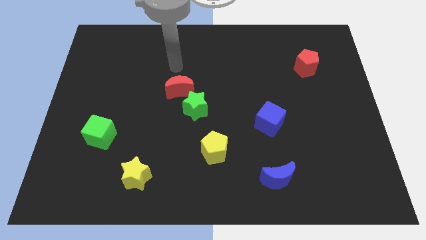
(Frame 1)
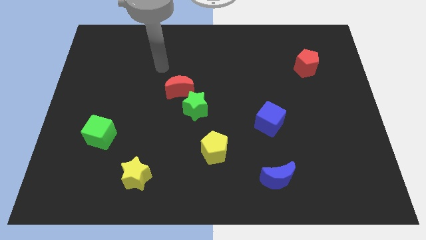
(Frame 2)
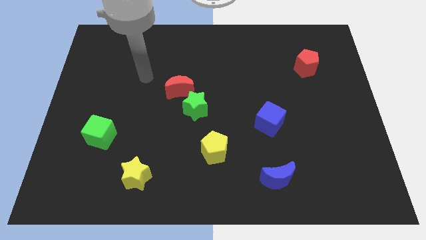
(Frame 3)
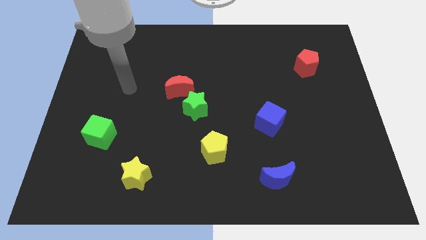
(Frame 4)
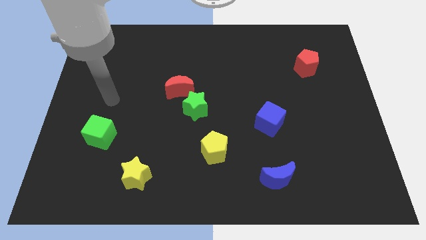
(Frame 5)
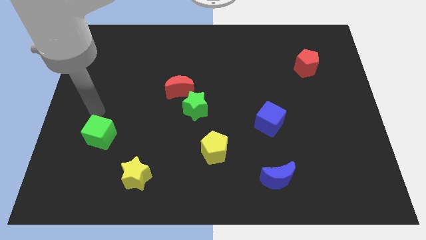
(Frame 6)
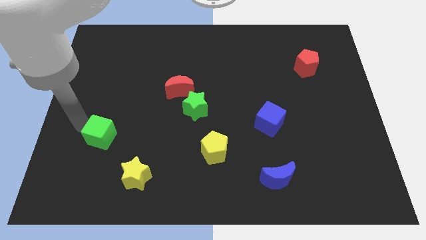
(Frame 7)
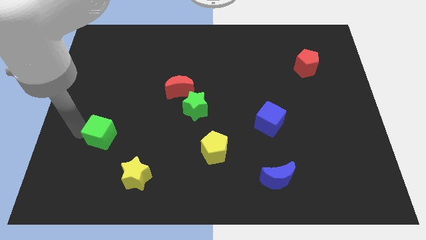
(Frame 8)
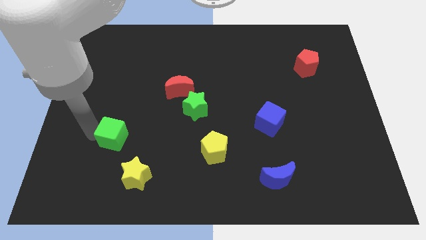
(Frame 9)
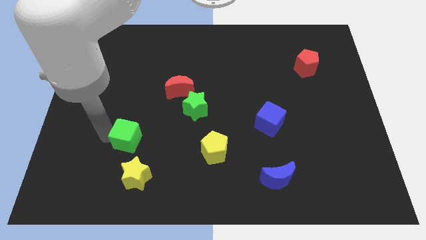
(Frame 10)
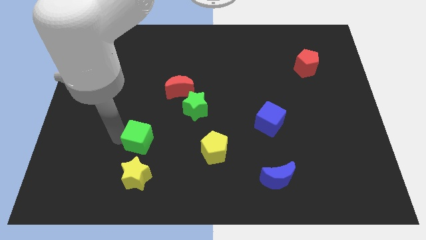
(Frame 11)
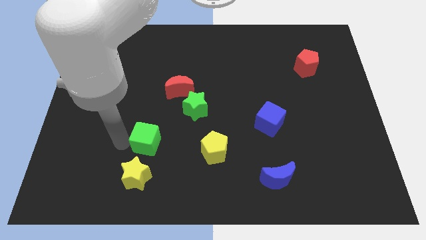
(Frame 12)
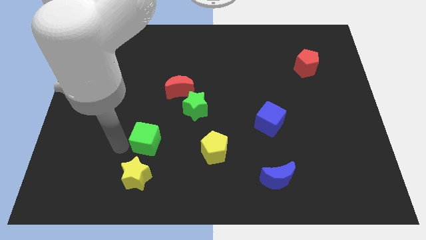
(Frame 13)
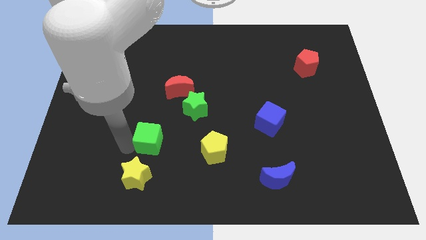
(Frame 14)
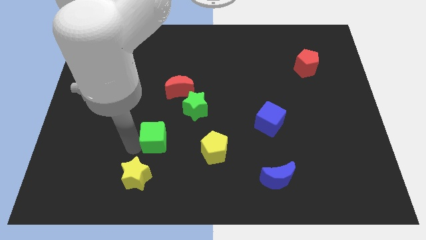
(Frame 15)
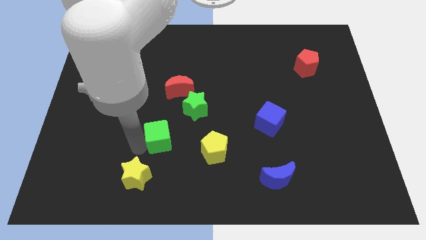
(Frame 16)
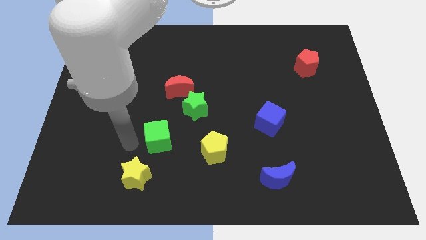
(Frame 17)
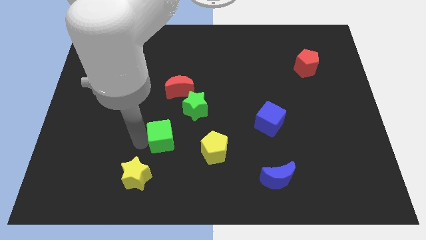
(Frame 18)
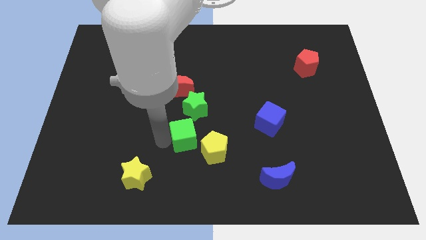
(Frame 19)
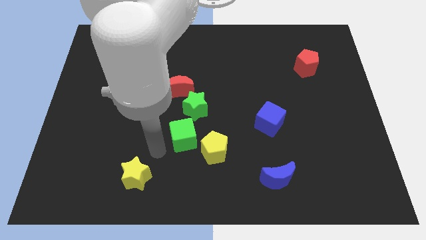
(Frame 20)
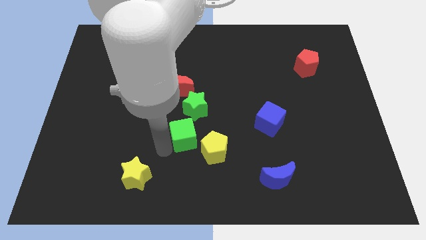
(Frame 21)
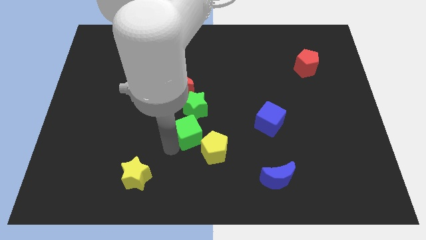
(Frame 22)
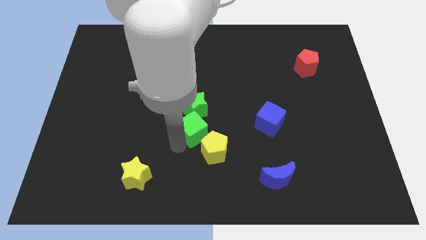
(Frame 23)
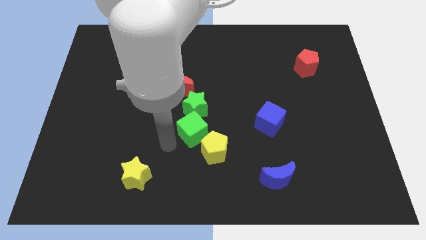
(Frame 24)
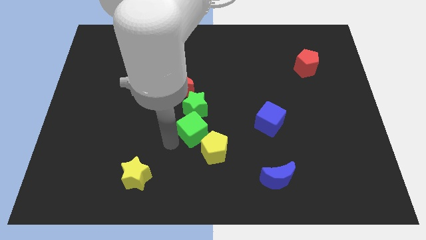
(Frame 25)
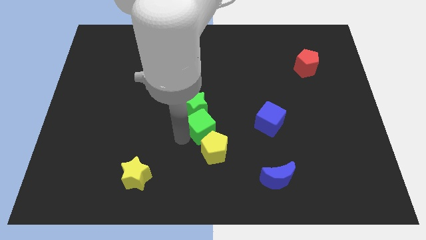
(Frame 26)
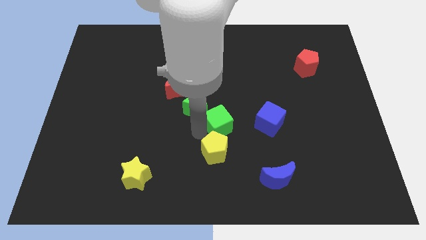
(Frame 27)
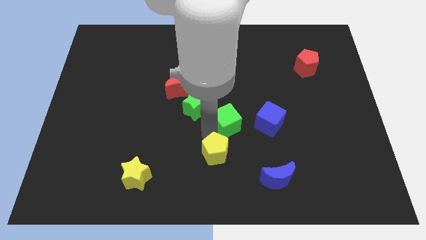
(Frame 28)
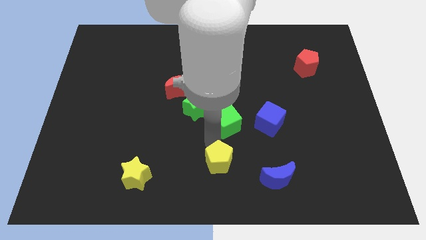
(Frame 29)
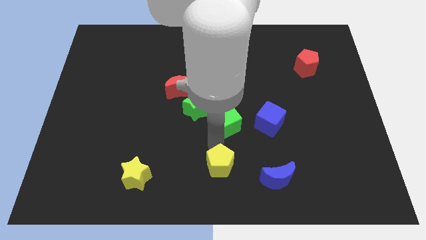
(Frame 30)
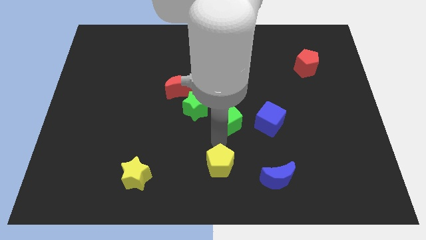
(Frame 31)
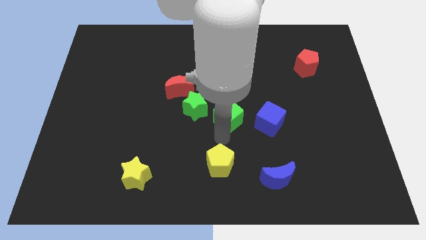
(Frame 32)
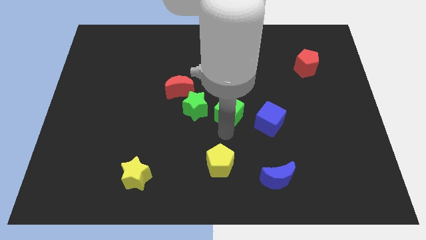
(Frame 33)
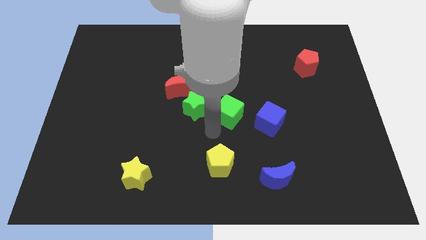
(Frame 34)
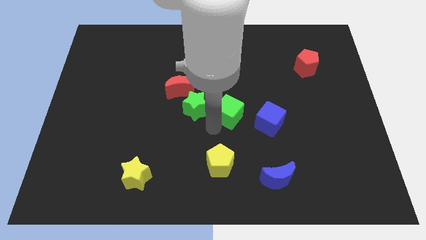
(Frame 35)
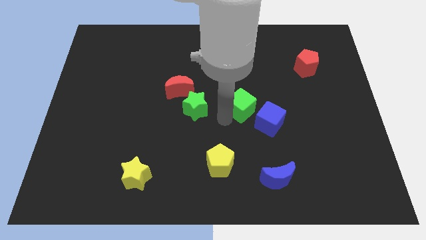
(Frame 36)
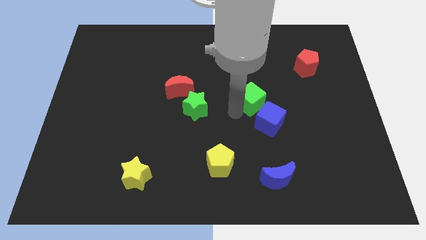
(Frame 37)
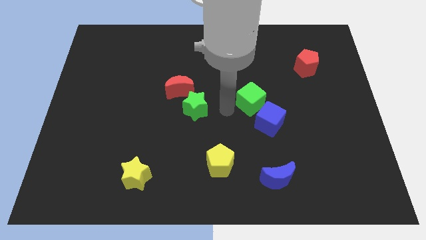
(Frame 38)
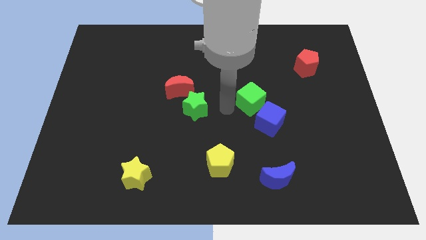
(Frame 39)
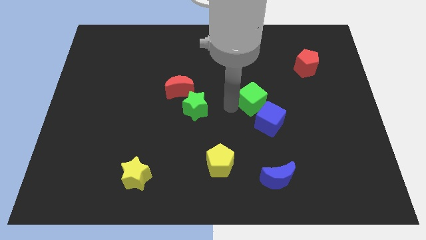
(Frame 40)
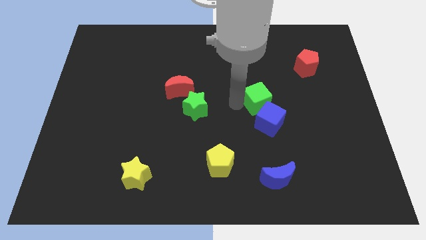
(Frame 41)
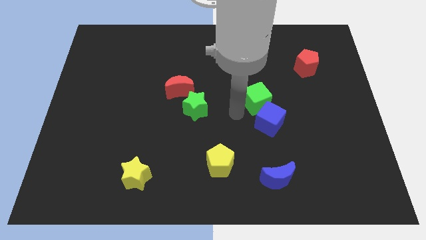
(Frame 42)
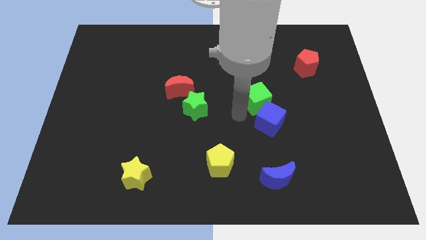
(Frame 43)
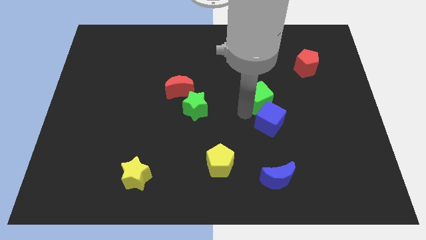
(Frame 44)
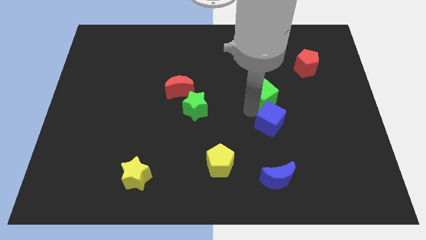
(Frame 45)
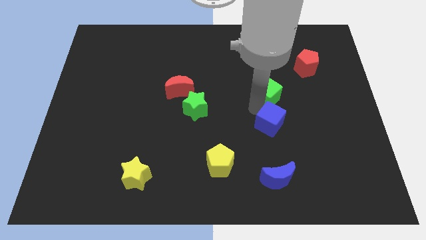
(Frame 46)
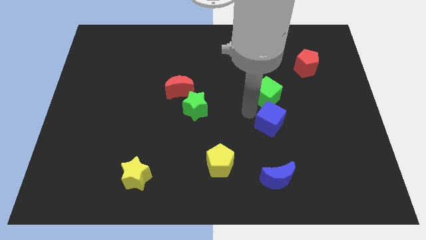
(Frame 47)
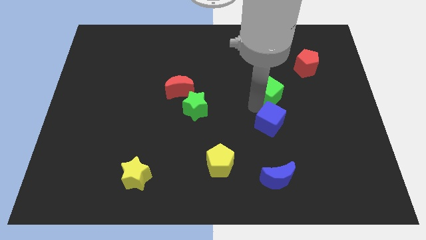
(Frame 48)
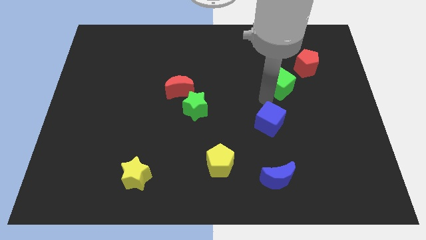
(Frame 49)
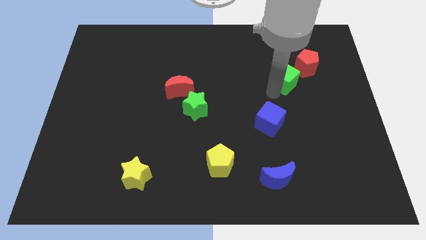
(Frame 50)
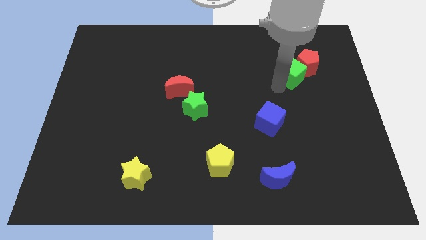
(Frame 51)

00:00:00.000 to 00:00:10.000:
slide the green cube towards the red pentagon

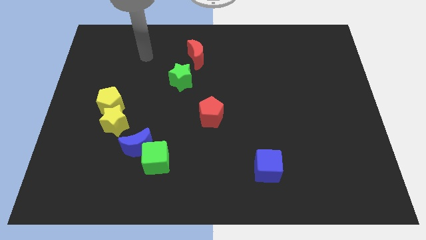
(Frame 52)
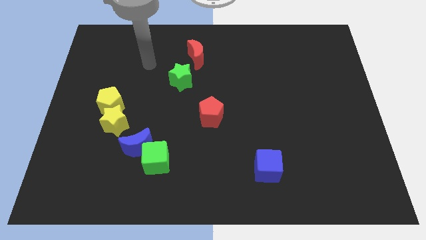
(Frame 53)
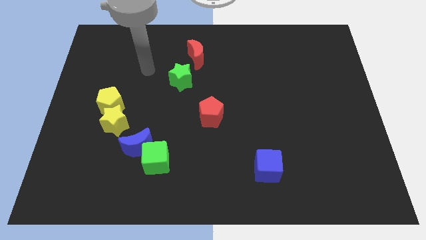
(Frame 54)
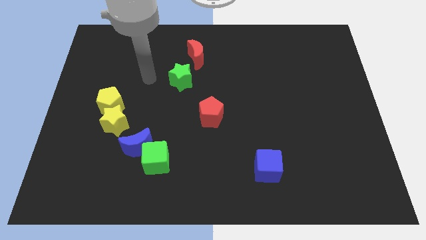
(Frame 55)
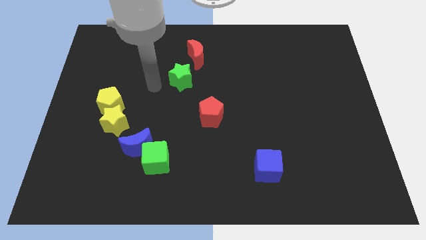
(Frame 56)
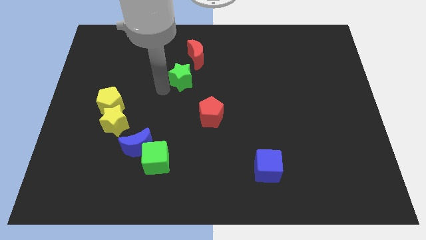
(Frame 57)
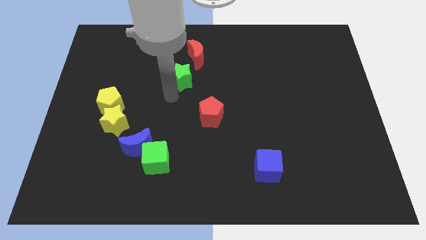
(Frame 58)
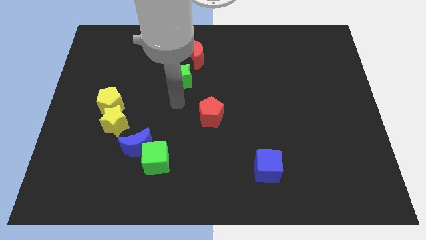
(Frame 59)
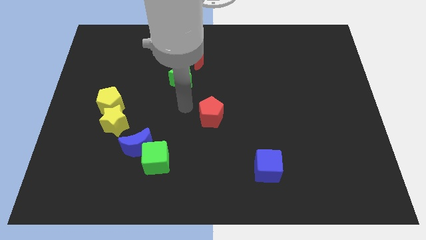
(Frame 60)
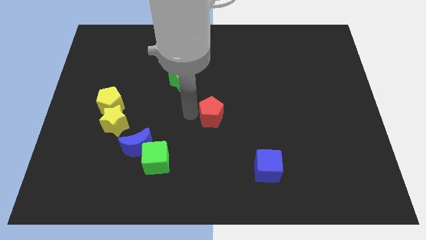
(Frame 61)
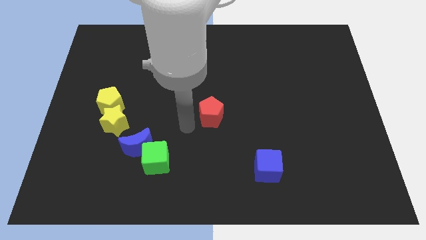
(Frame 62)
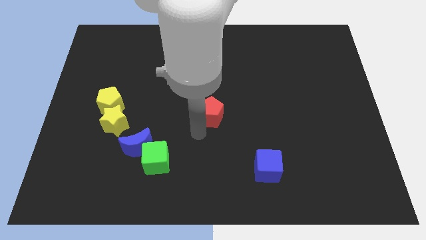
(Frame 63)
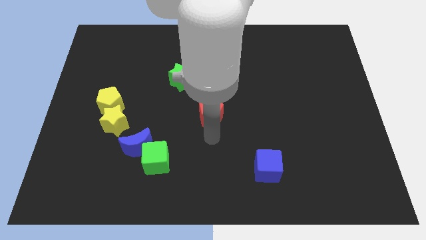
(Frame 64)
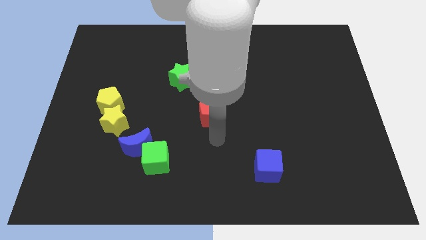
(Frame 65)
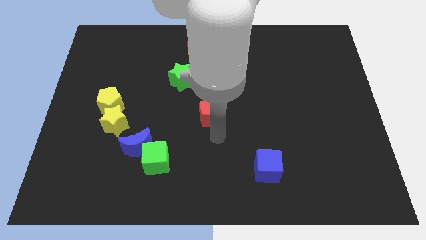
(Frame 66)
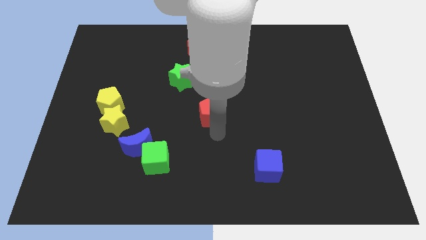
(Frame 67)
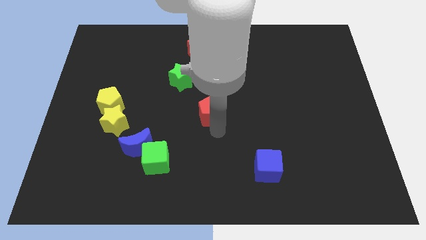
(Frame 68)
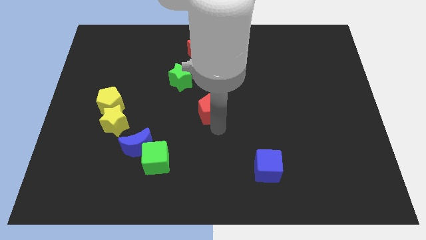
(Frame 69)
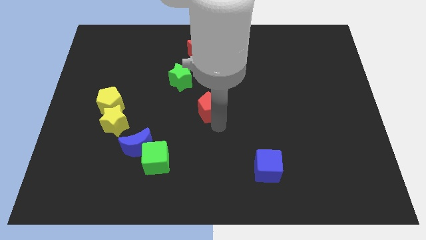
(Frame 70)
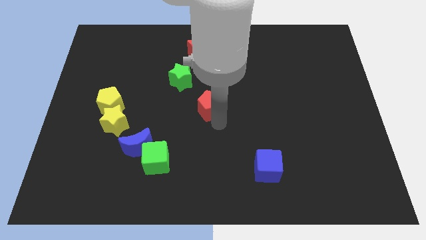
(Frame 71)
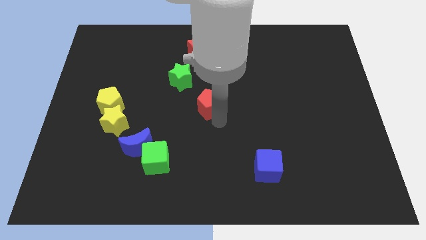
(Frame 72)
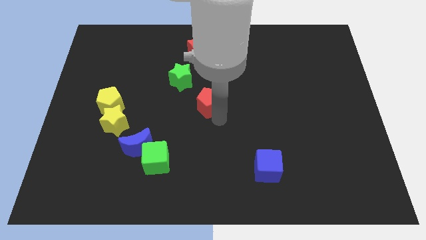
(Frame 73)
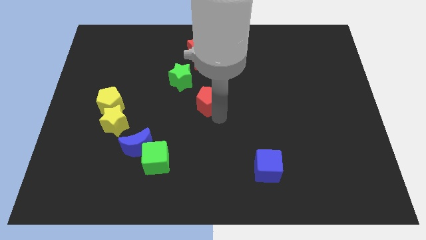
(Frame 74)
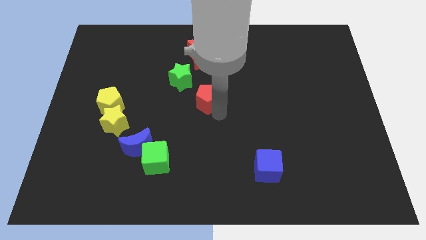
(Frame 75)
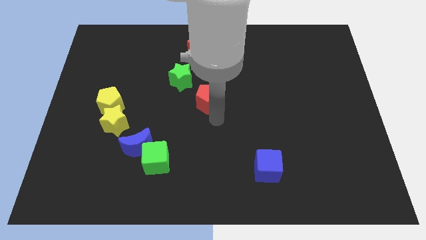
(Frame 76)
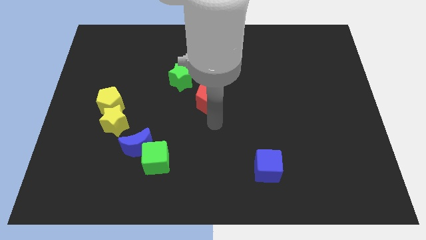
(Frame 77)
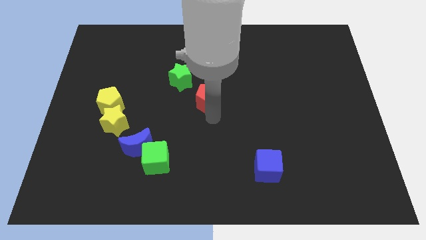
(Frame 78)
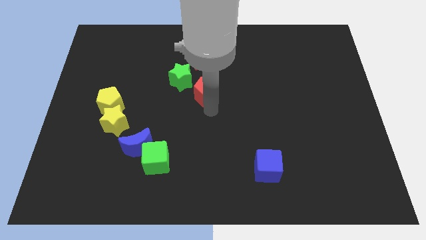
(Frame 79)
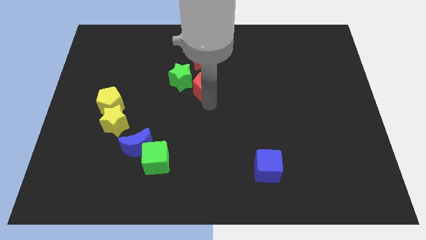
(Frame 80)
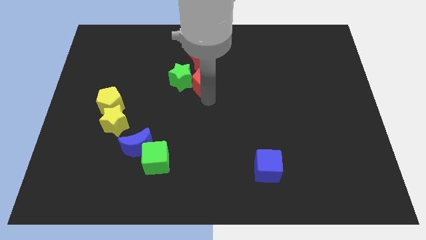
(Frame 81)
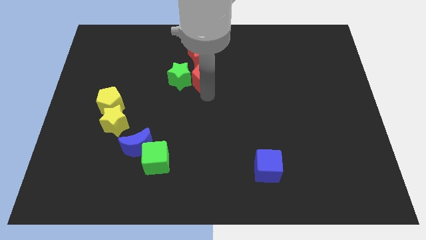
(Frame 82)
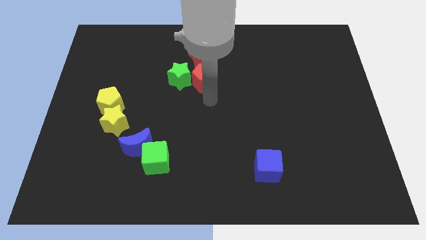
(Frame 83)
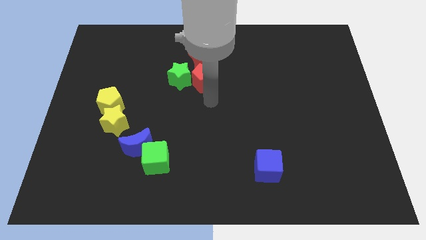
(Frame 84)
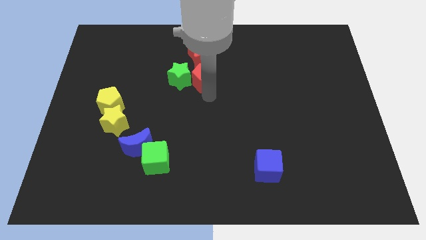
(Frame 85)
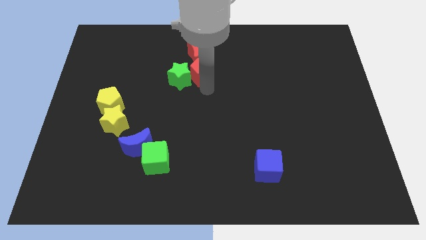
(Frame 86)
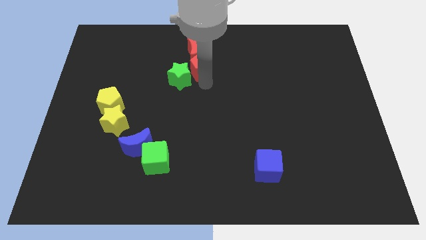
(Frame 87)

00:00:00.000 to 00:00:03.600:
slide the red pentagon next to the red moon
